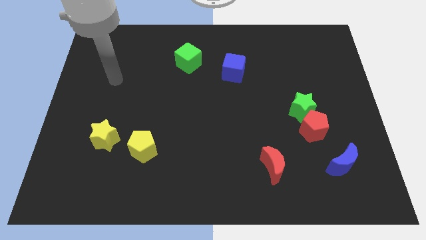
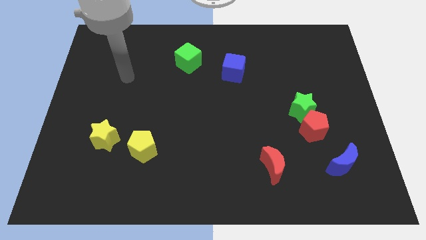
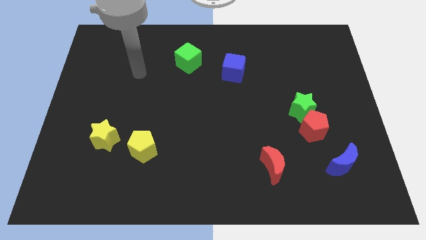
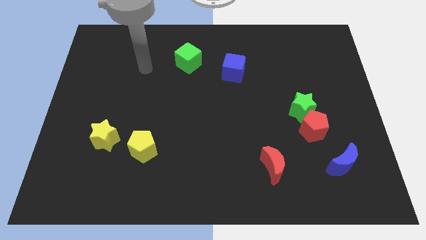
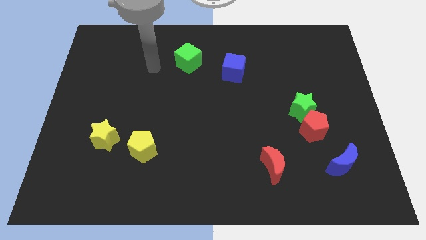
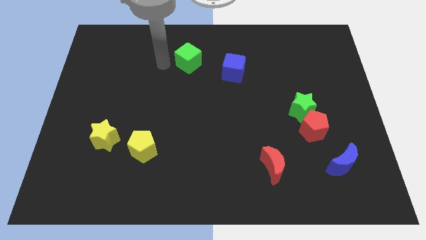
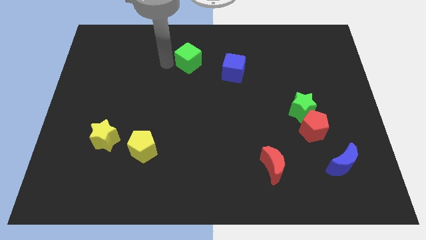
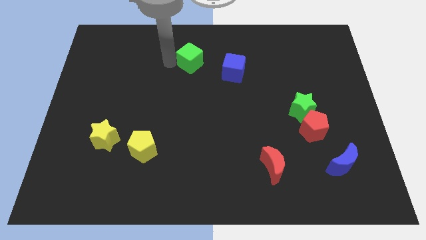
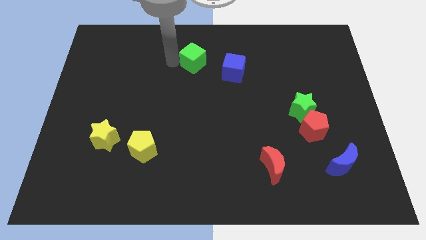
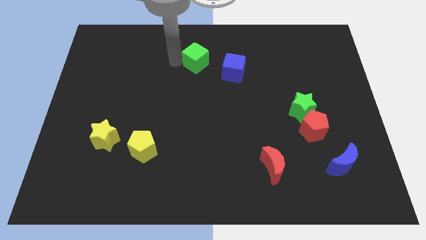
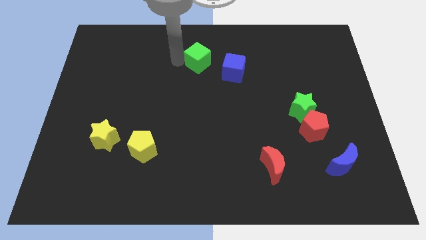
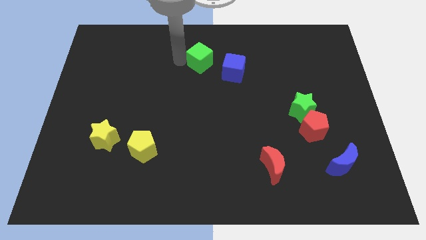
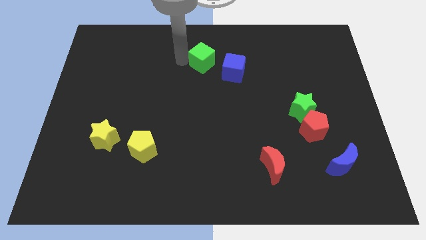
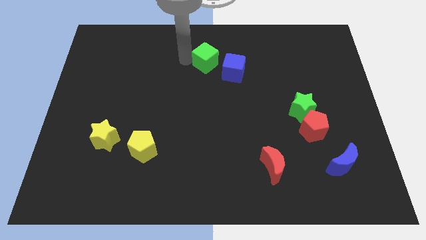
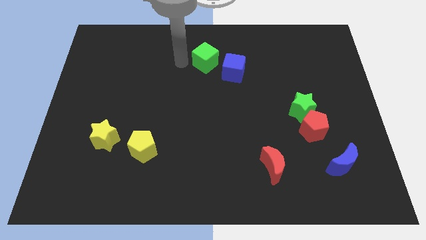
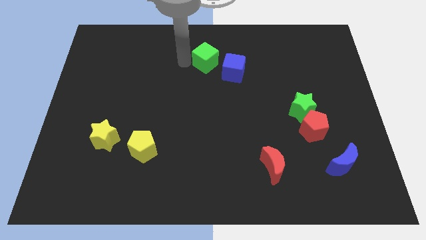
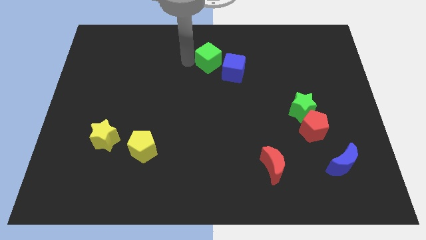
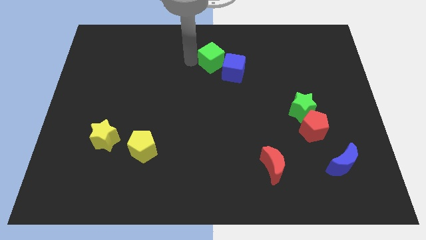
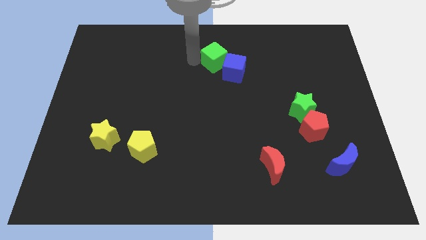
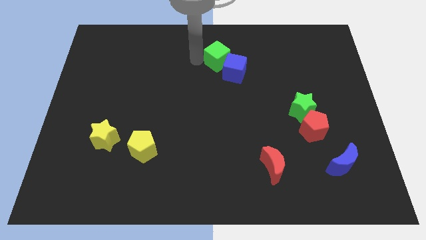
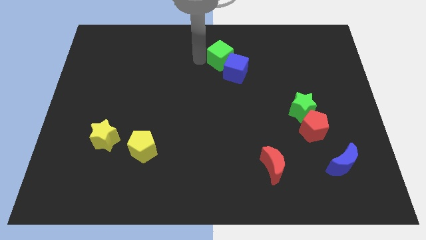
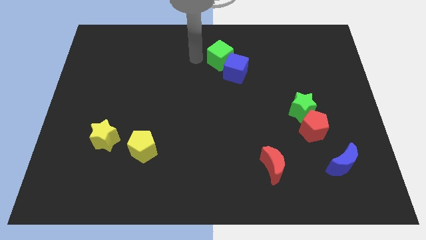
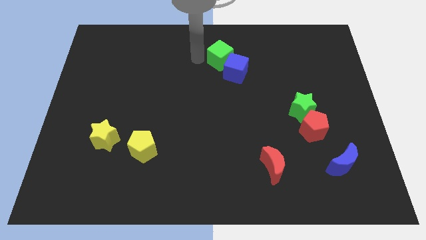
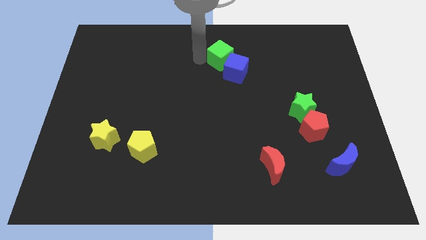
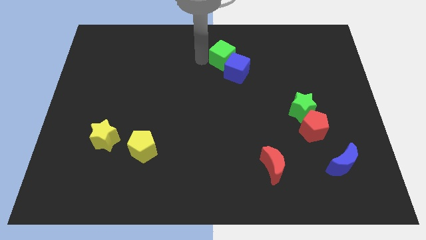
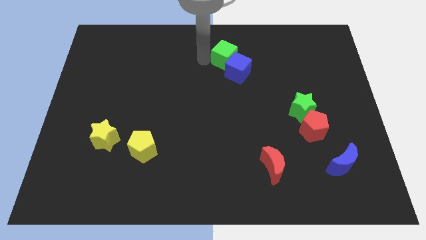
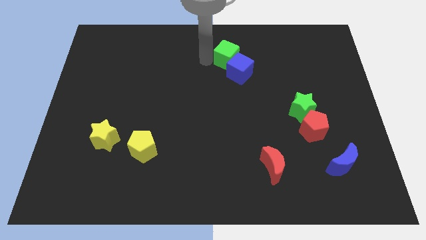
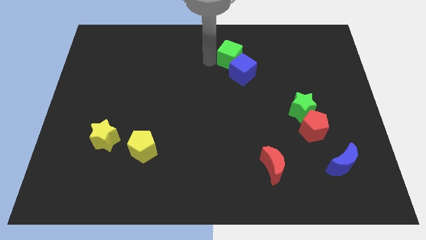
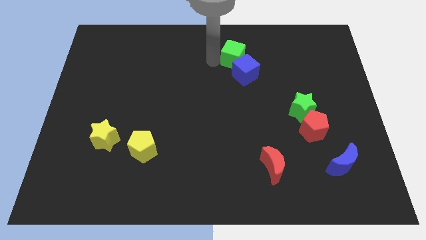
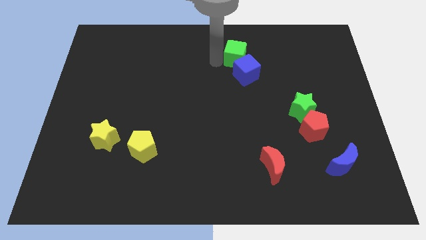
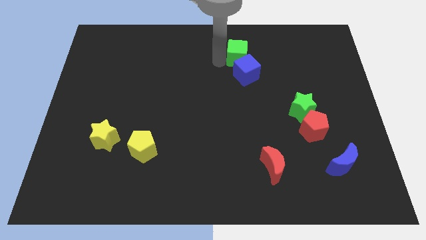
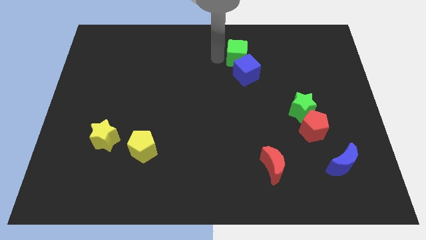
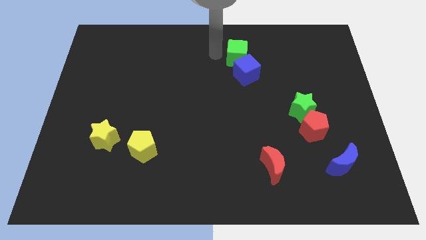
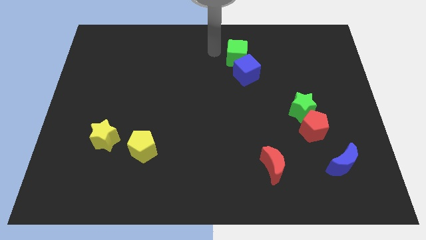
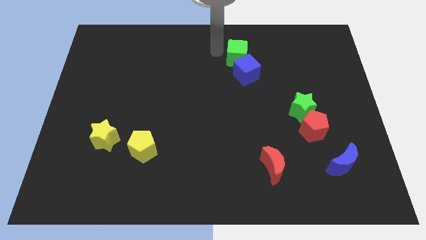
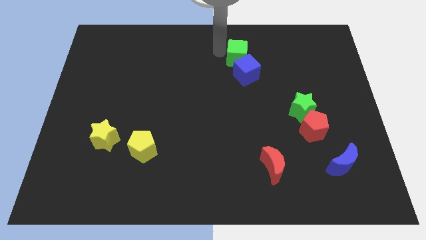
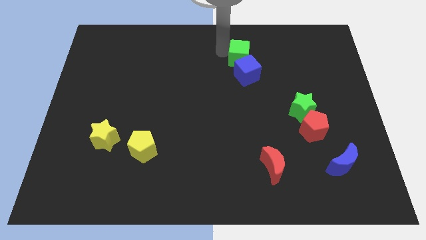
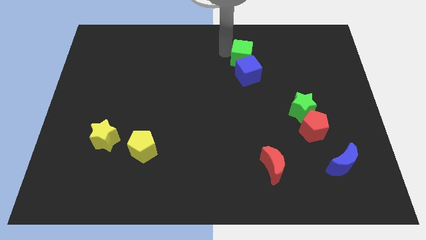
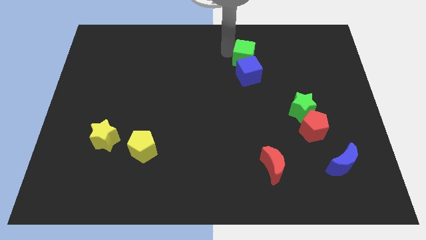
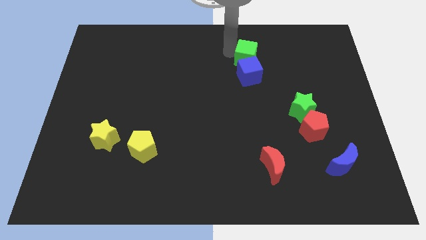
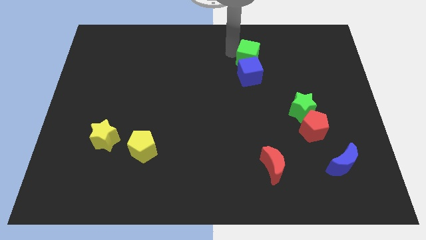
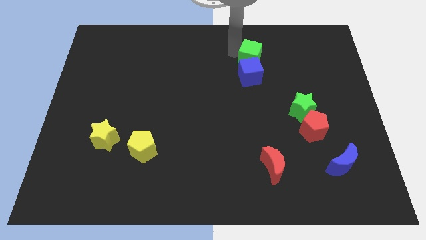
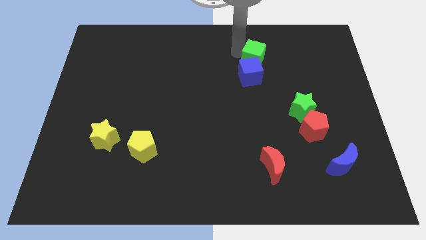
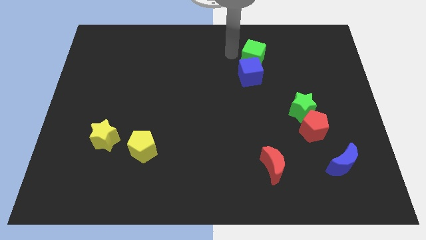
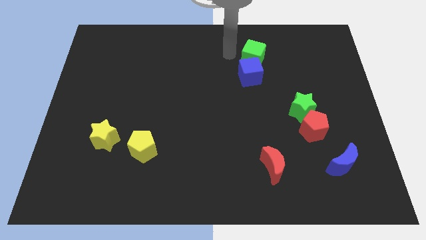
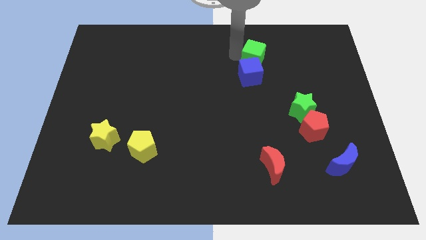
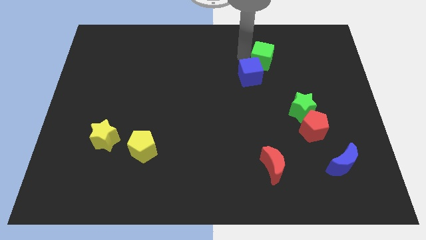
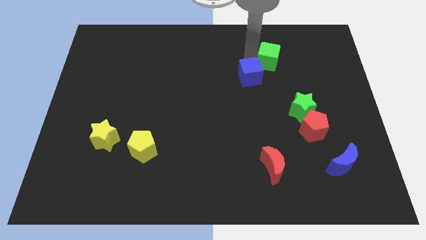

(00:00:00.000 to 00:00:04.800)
slide the green cube right

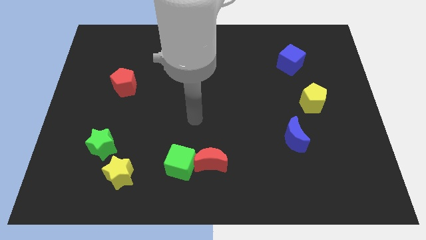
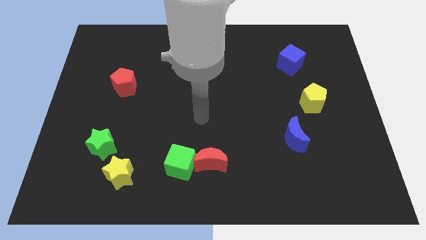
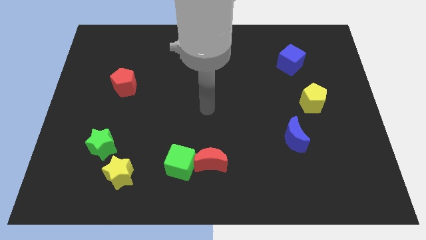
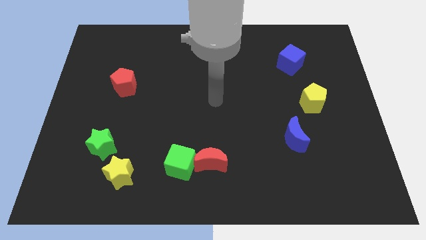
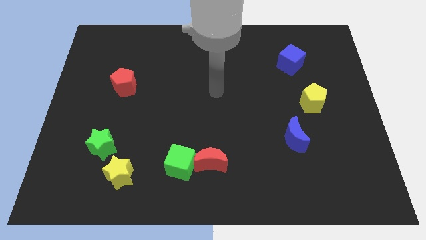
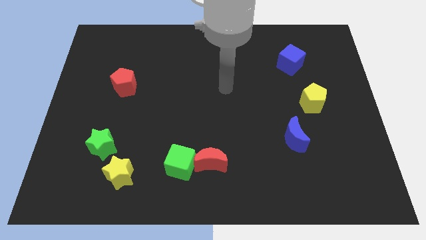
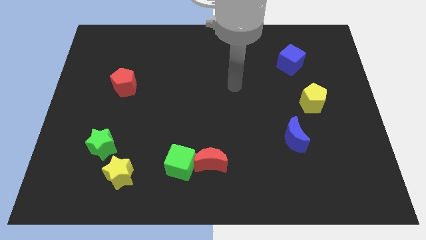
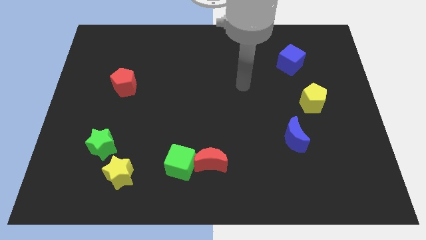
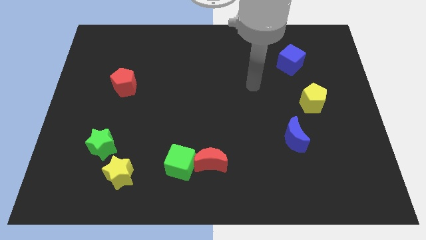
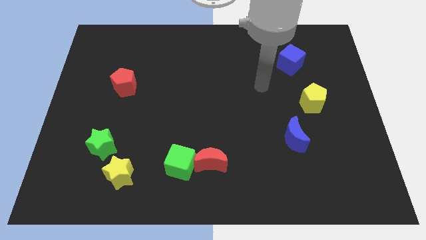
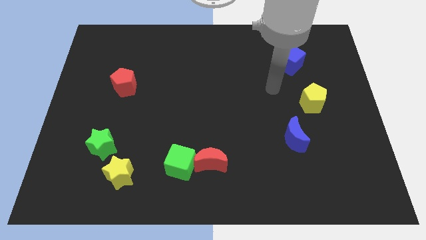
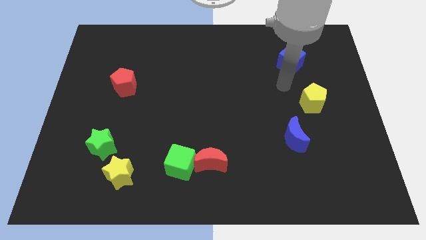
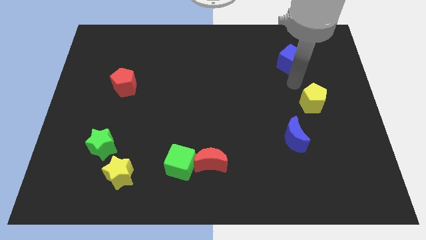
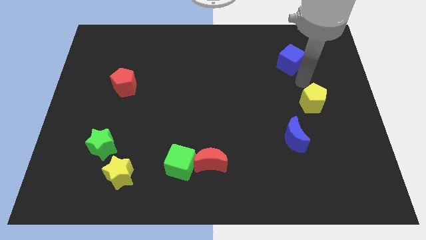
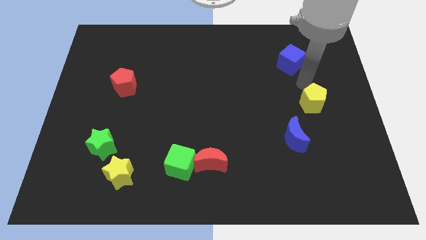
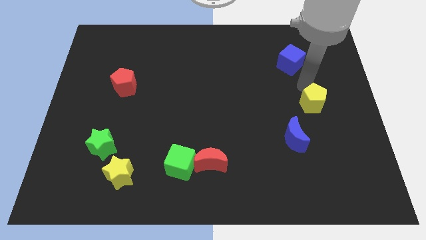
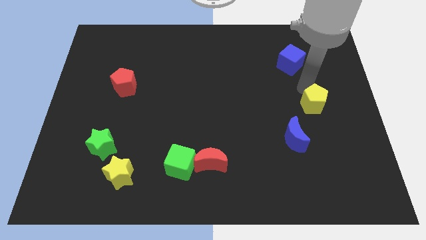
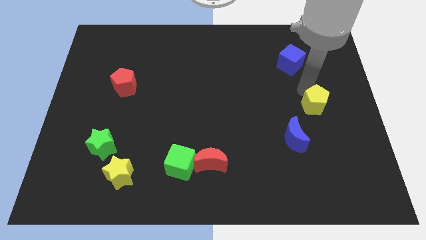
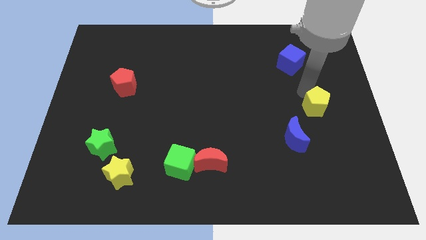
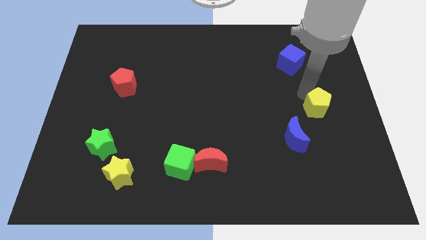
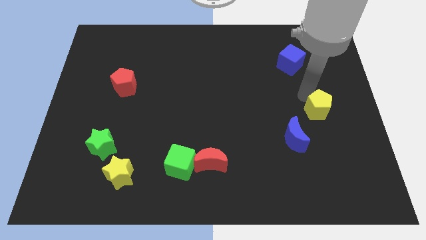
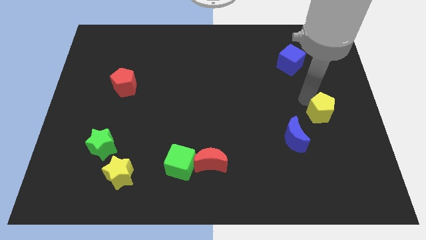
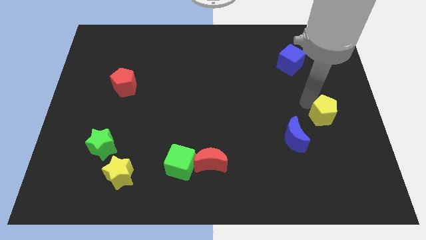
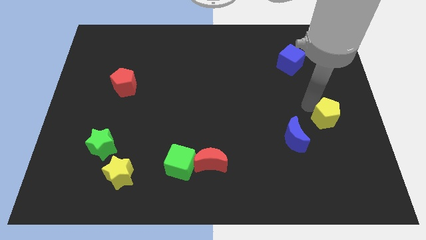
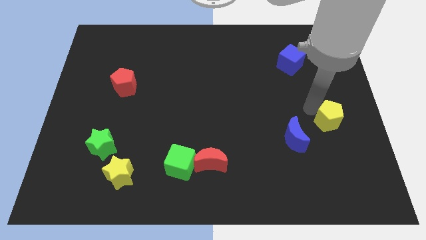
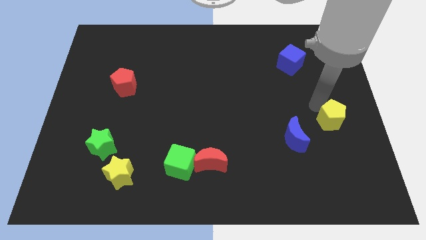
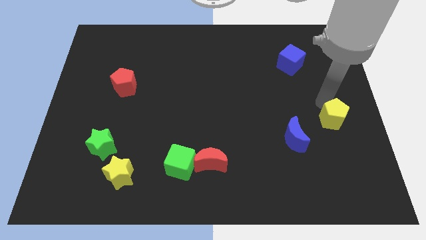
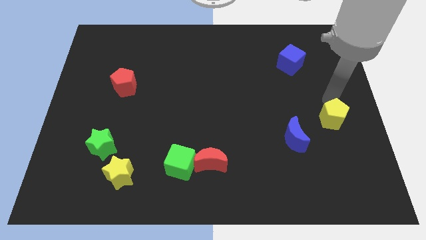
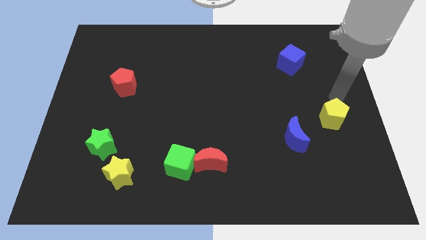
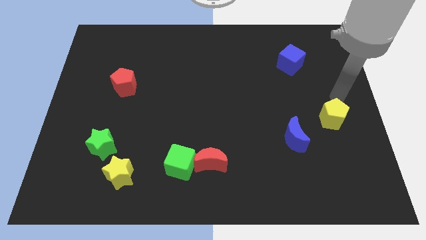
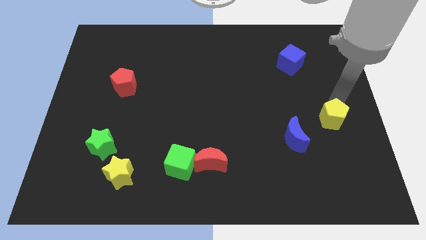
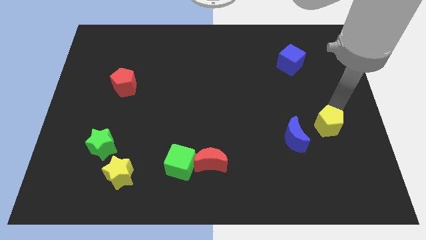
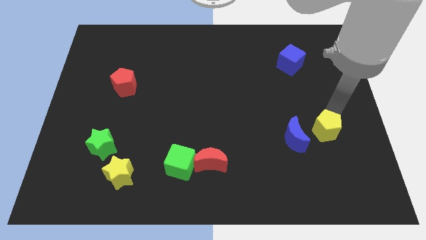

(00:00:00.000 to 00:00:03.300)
push the yellow pentagon downwards a little
